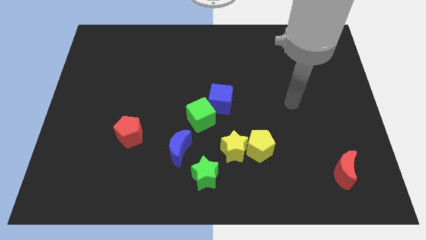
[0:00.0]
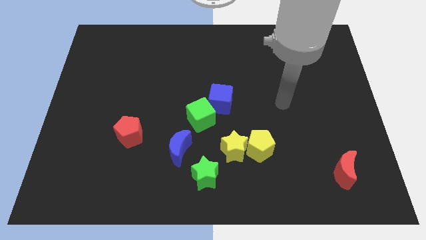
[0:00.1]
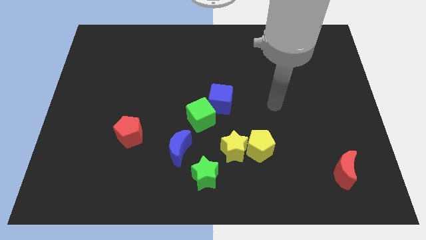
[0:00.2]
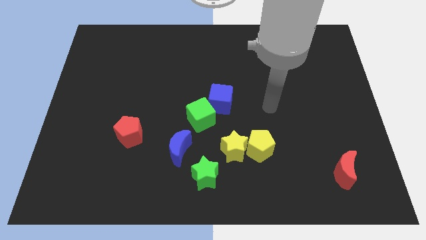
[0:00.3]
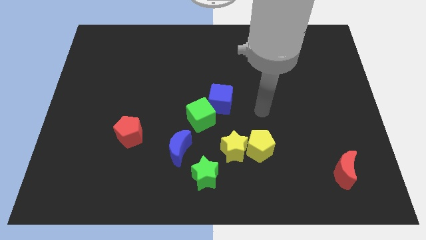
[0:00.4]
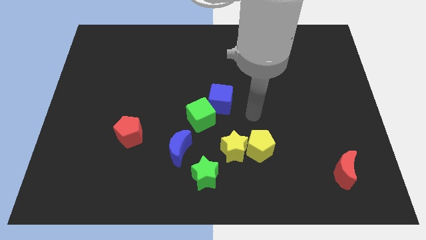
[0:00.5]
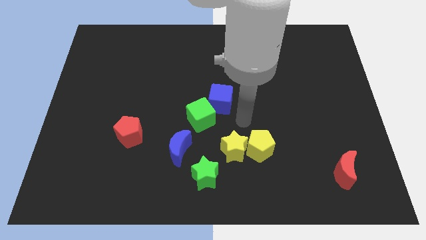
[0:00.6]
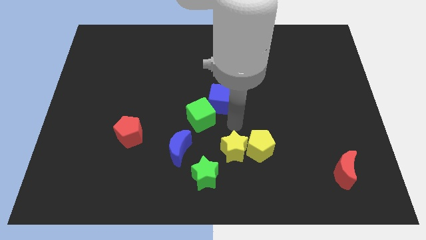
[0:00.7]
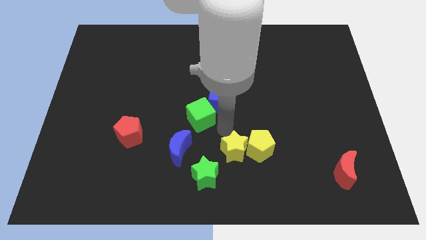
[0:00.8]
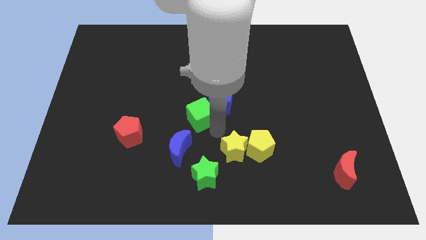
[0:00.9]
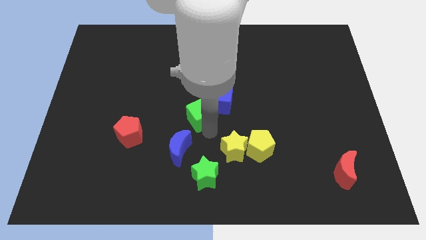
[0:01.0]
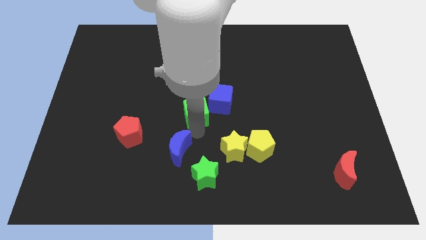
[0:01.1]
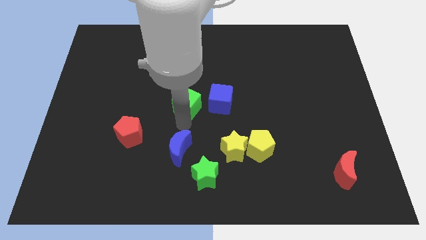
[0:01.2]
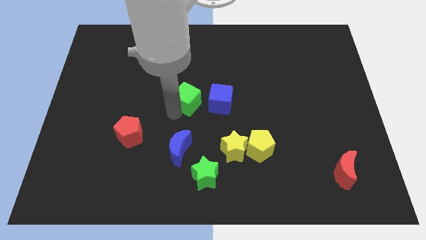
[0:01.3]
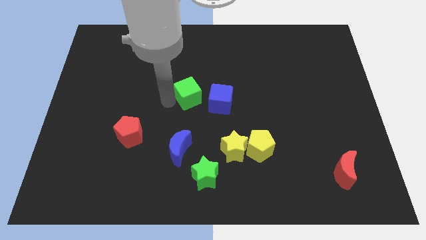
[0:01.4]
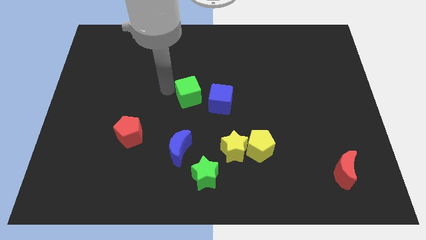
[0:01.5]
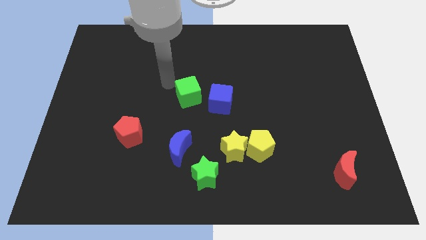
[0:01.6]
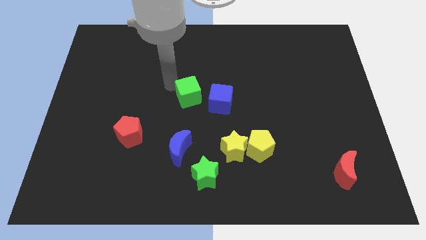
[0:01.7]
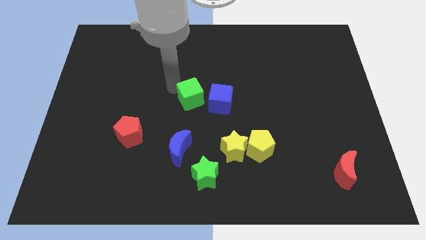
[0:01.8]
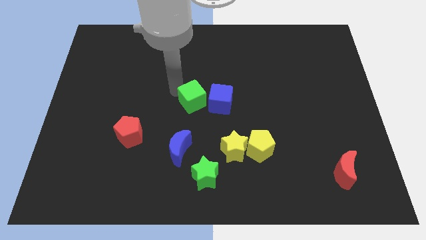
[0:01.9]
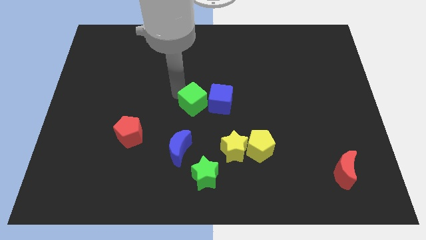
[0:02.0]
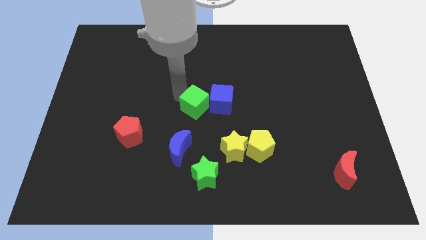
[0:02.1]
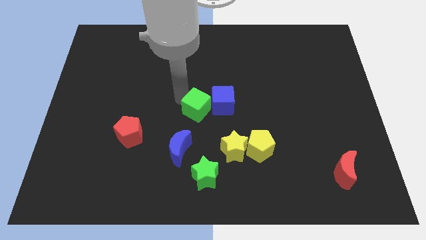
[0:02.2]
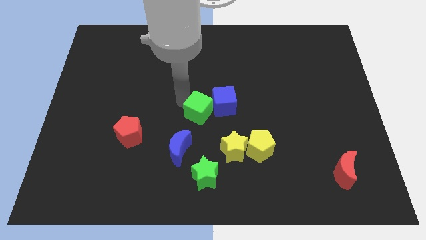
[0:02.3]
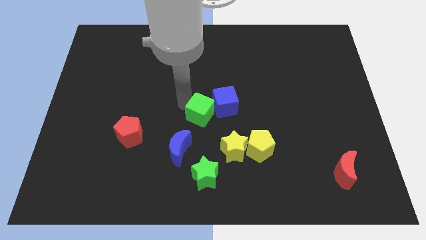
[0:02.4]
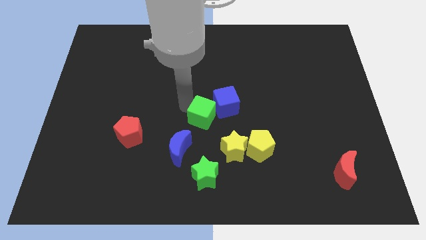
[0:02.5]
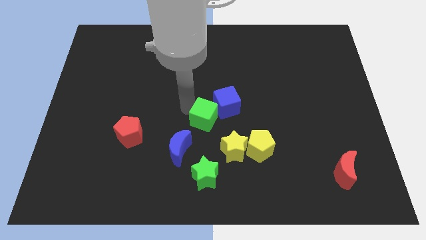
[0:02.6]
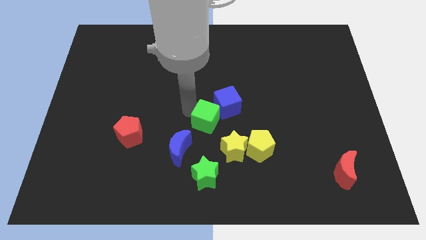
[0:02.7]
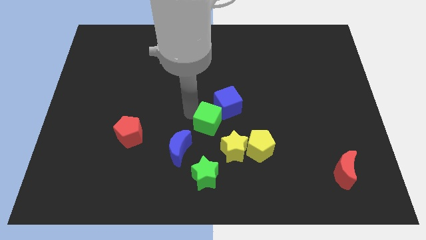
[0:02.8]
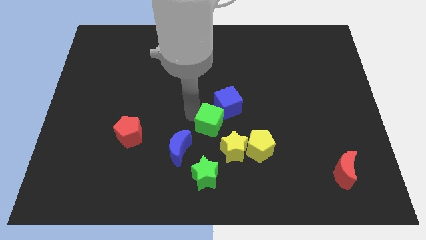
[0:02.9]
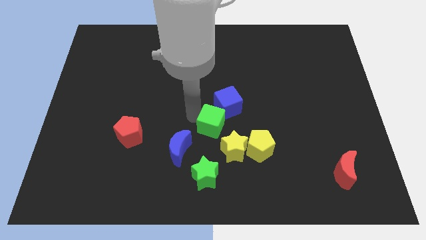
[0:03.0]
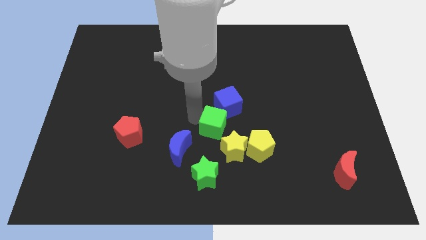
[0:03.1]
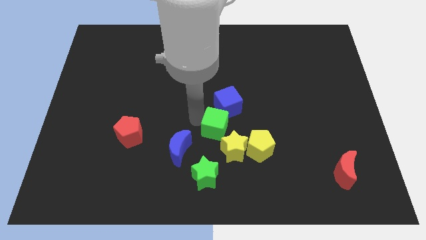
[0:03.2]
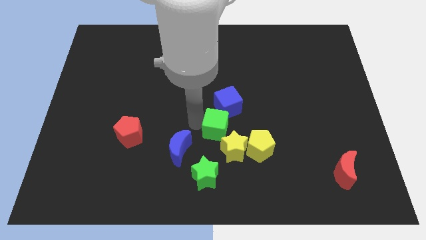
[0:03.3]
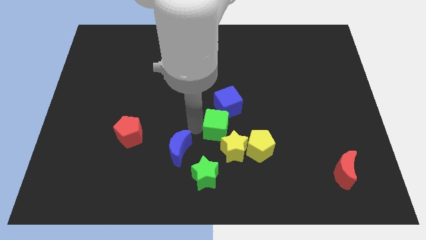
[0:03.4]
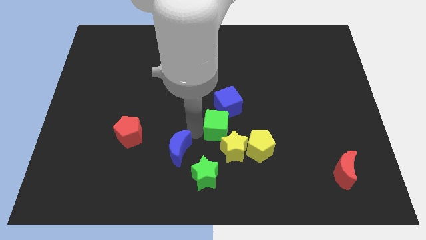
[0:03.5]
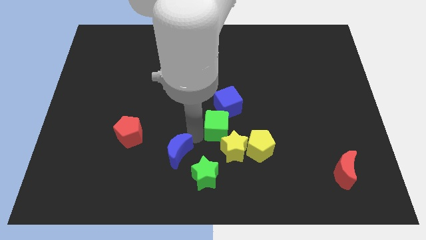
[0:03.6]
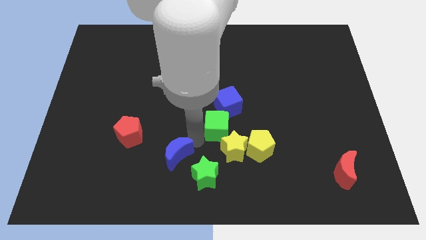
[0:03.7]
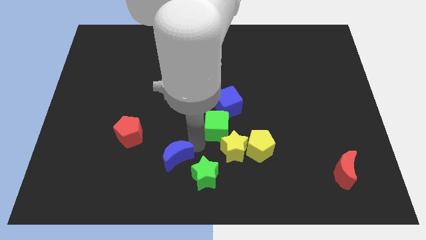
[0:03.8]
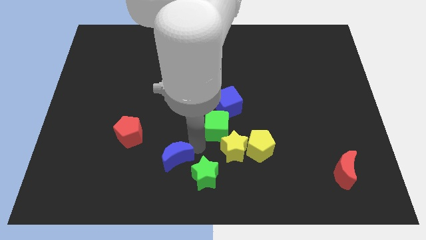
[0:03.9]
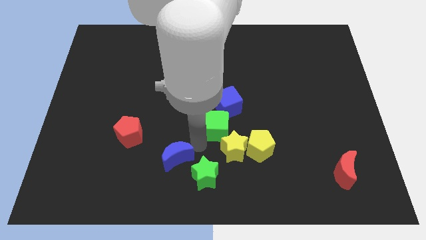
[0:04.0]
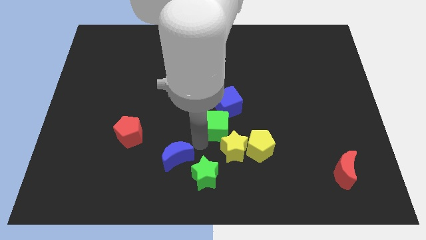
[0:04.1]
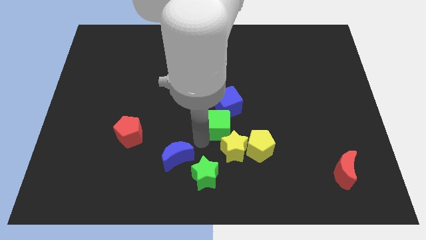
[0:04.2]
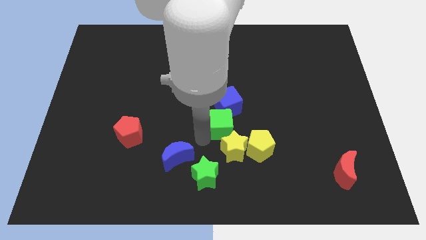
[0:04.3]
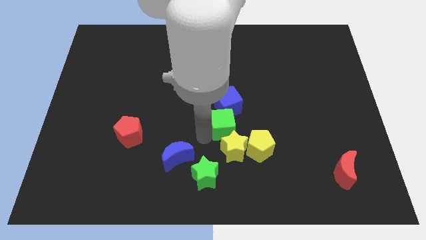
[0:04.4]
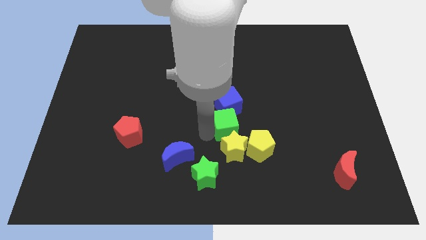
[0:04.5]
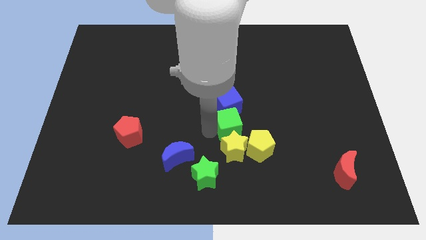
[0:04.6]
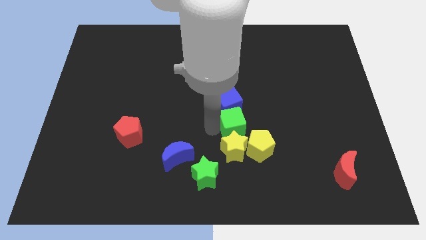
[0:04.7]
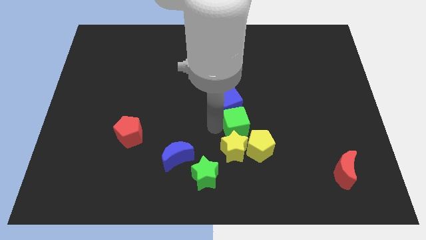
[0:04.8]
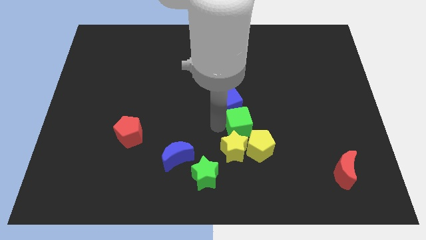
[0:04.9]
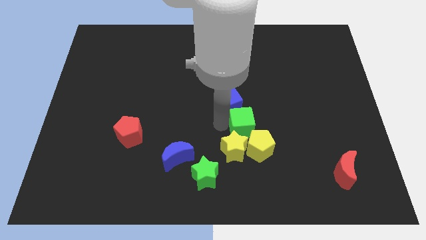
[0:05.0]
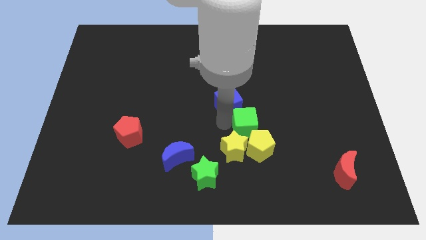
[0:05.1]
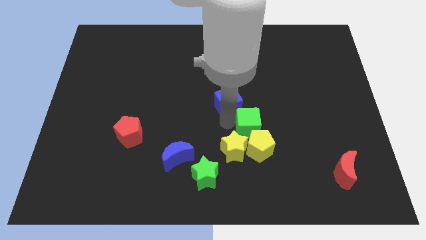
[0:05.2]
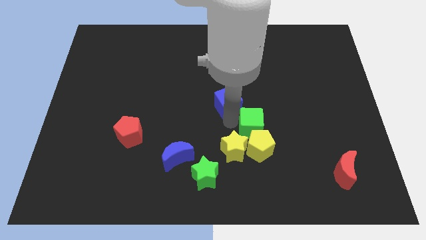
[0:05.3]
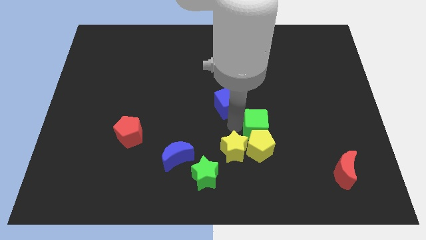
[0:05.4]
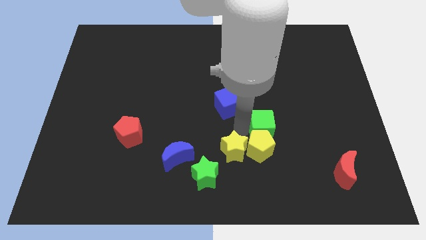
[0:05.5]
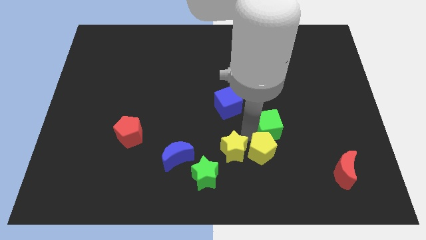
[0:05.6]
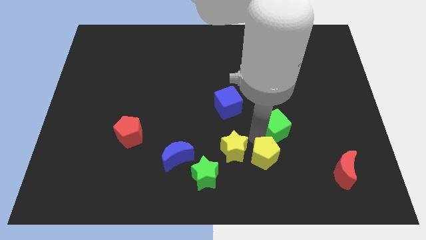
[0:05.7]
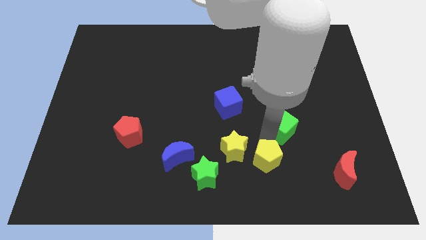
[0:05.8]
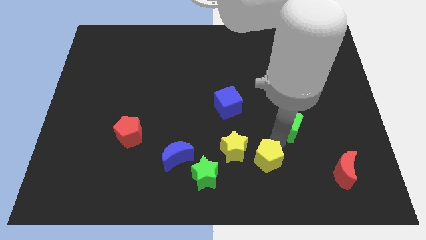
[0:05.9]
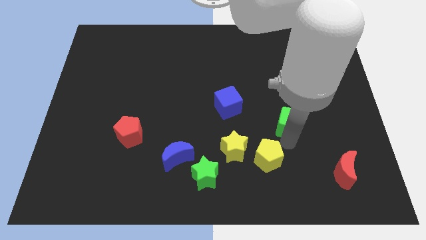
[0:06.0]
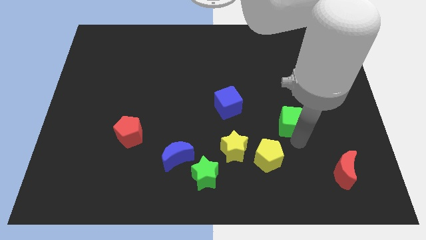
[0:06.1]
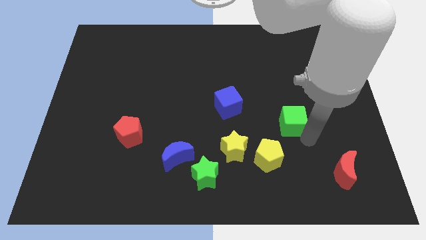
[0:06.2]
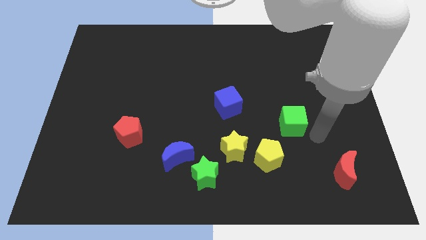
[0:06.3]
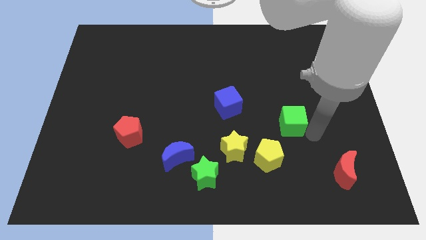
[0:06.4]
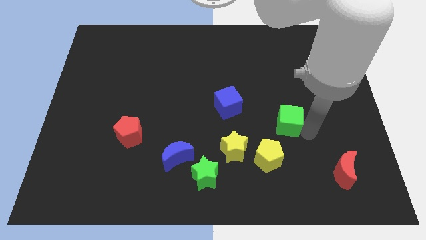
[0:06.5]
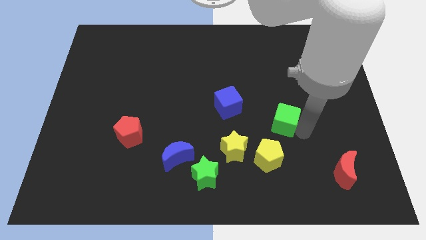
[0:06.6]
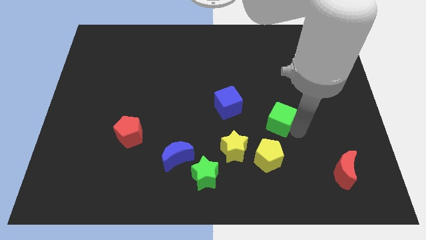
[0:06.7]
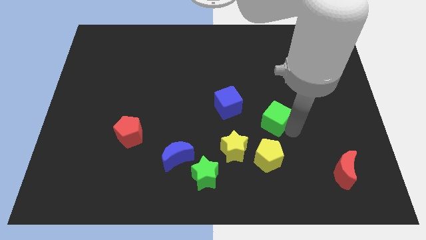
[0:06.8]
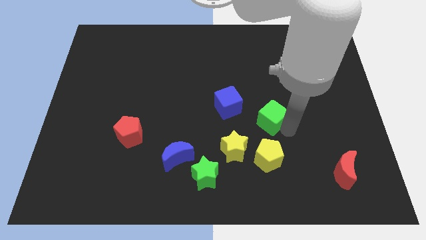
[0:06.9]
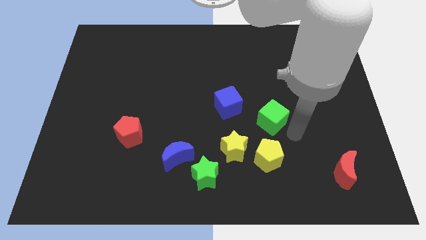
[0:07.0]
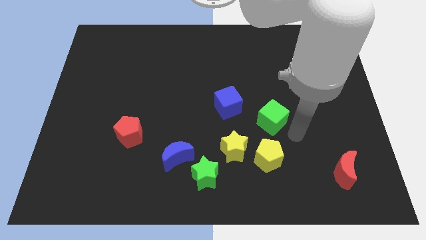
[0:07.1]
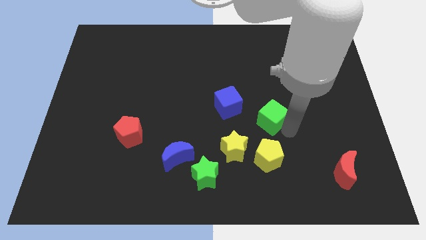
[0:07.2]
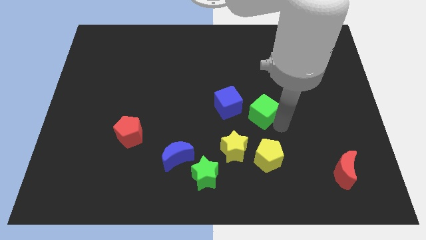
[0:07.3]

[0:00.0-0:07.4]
slightly move the green cube up and to the right diagonally
